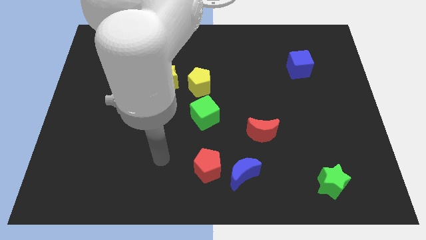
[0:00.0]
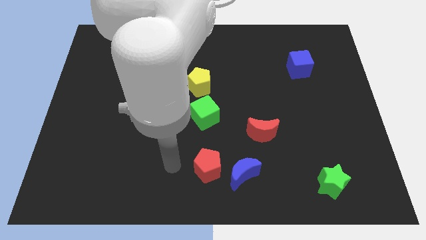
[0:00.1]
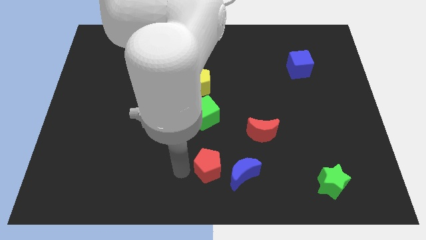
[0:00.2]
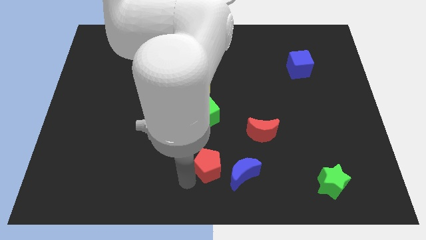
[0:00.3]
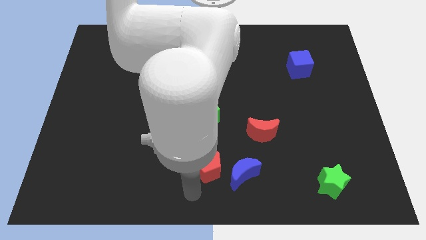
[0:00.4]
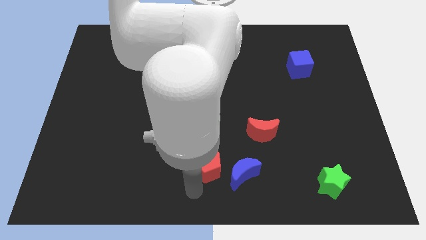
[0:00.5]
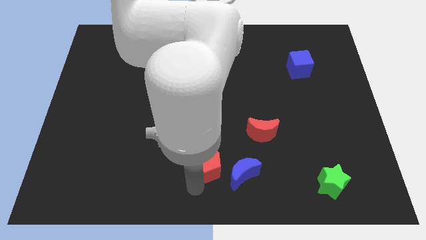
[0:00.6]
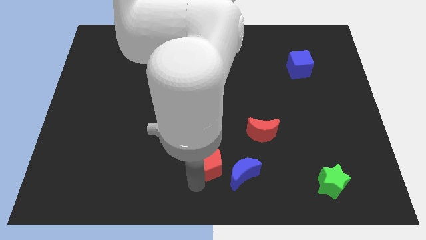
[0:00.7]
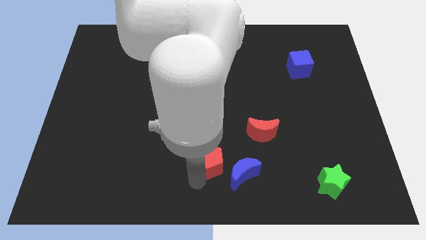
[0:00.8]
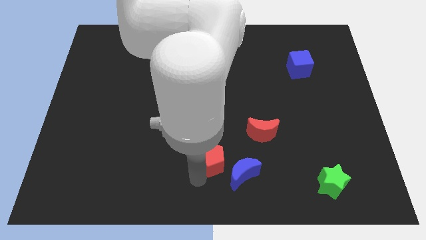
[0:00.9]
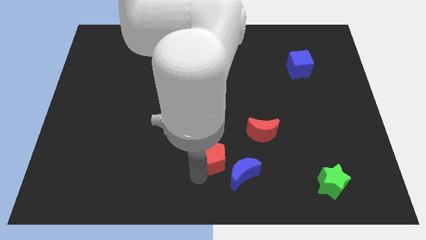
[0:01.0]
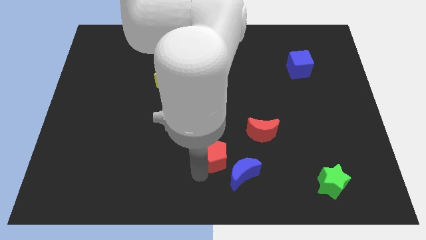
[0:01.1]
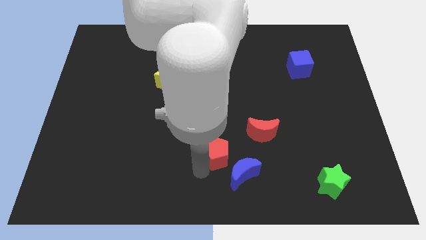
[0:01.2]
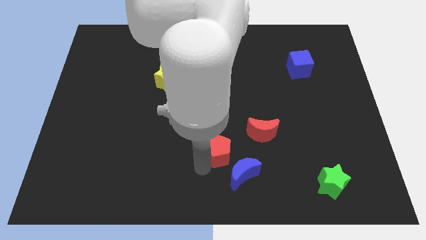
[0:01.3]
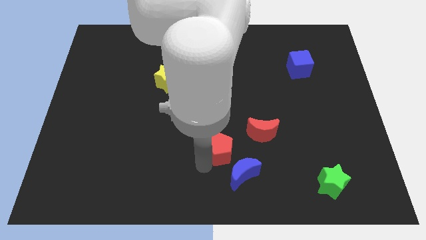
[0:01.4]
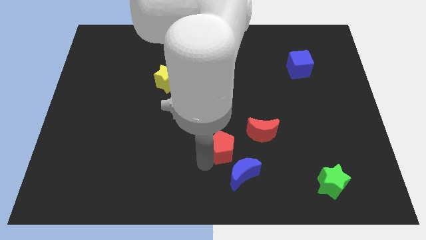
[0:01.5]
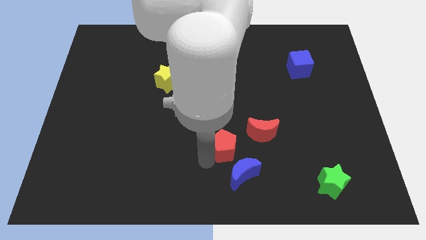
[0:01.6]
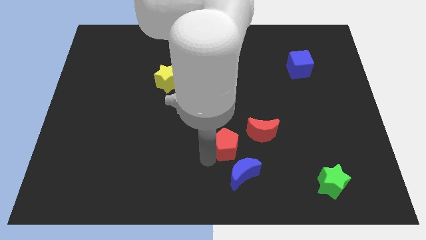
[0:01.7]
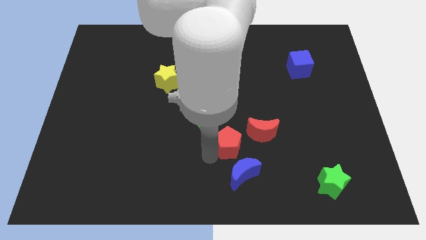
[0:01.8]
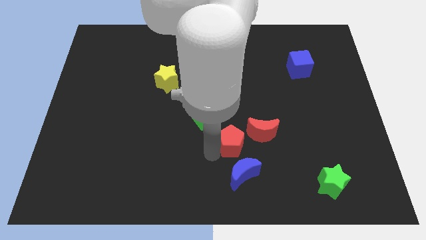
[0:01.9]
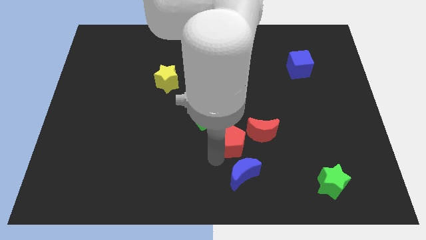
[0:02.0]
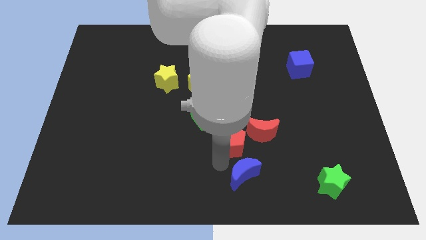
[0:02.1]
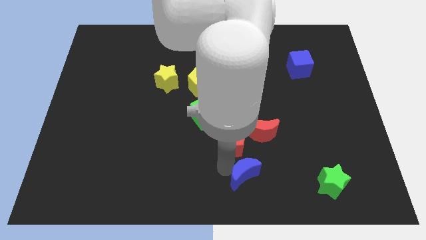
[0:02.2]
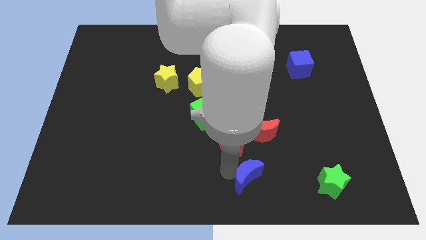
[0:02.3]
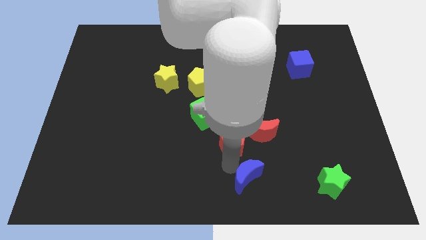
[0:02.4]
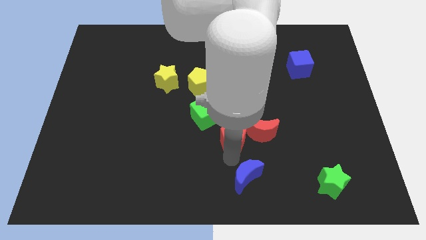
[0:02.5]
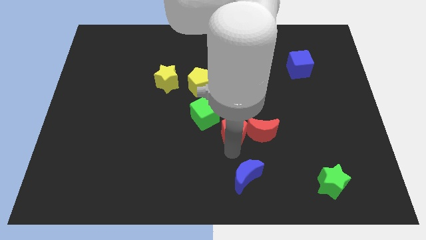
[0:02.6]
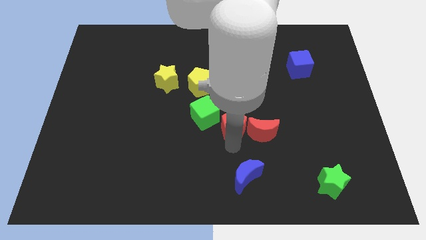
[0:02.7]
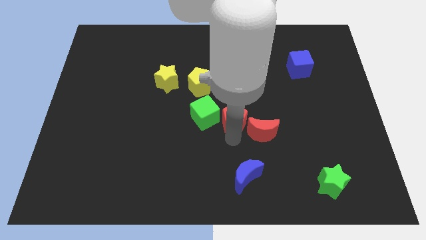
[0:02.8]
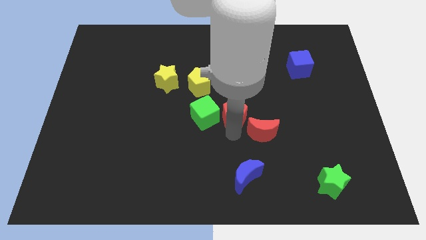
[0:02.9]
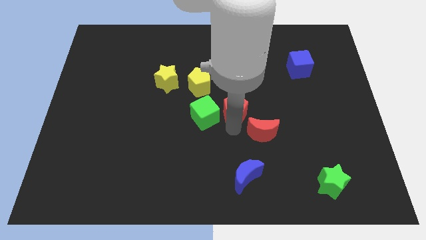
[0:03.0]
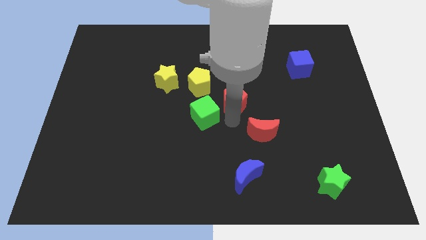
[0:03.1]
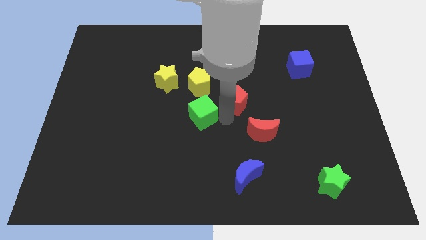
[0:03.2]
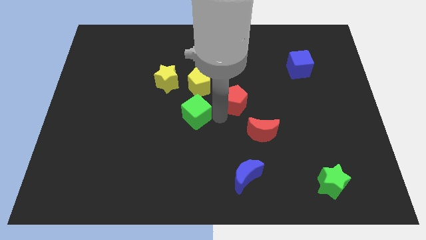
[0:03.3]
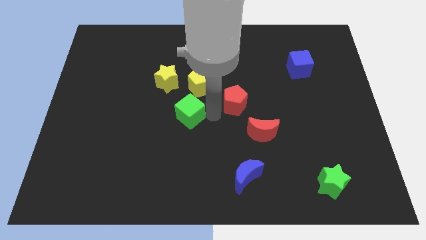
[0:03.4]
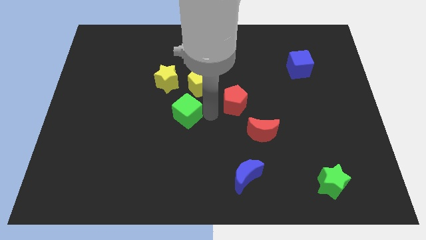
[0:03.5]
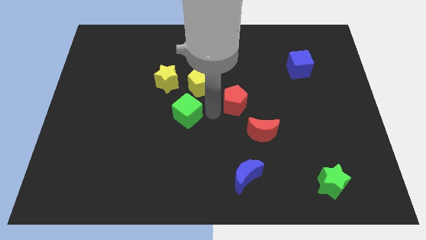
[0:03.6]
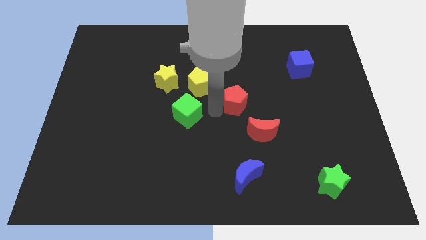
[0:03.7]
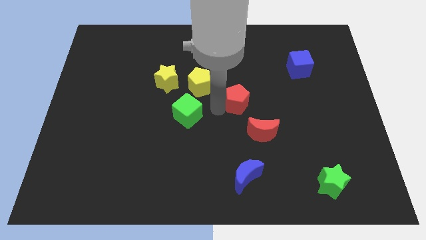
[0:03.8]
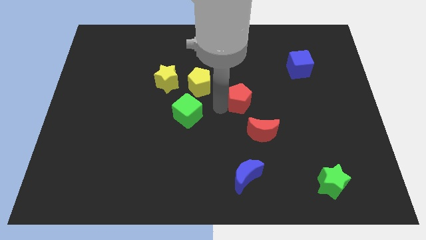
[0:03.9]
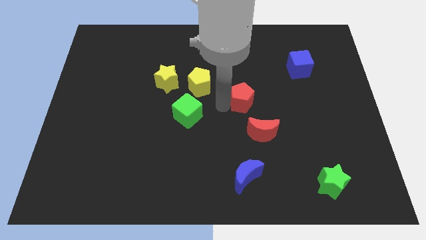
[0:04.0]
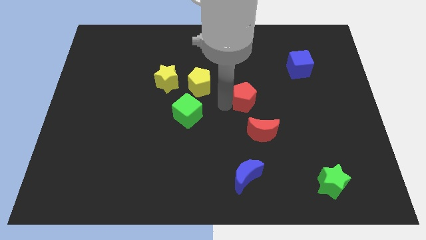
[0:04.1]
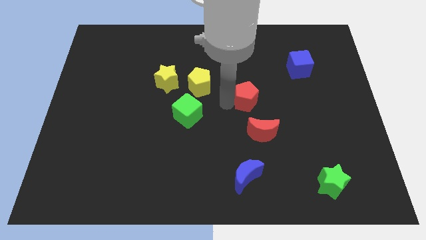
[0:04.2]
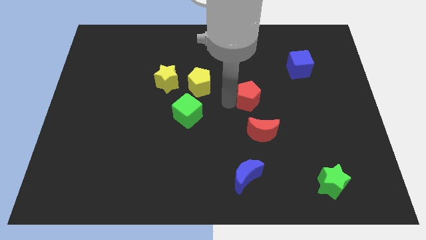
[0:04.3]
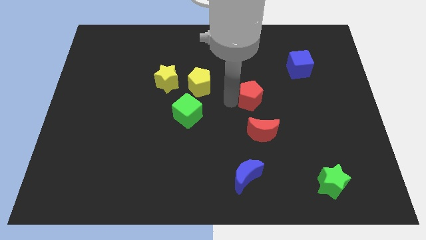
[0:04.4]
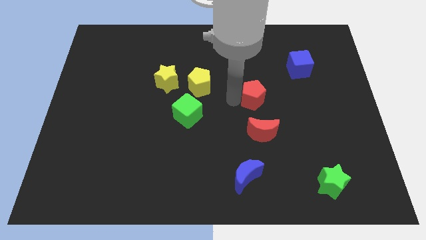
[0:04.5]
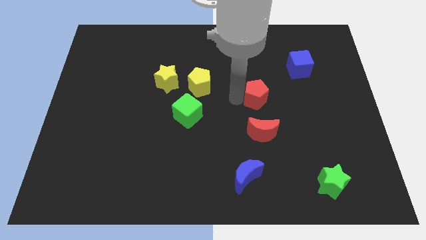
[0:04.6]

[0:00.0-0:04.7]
push the red pentagon upwards and right

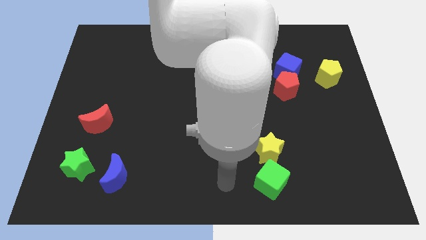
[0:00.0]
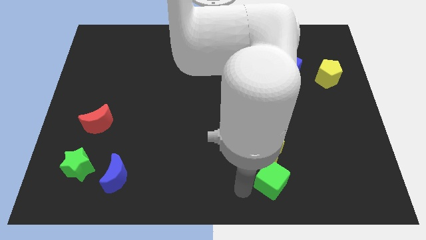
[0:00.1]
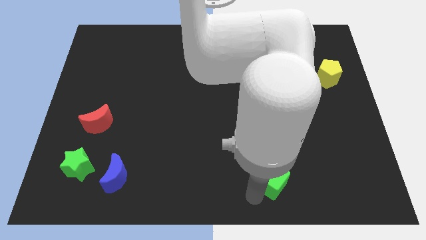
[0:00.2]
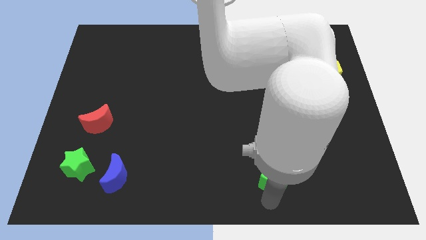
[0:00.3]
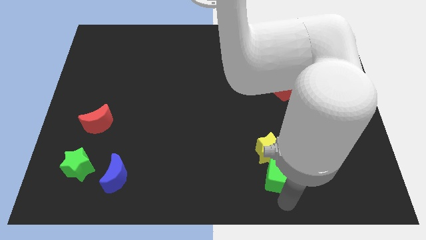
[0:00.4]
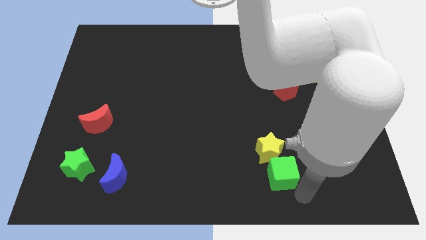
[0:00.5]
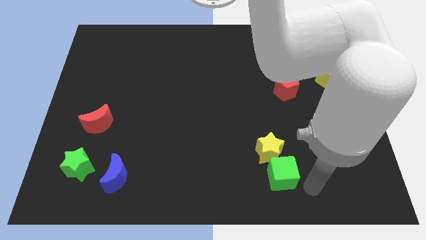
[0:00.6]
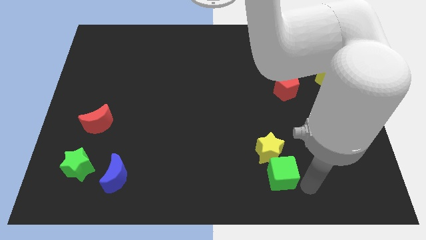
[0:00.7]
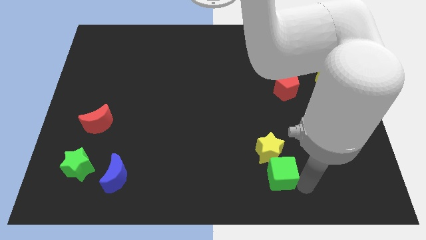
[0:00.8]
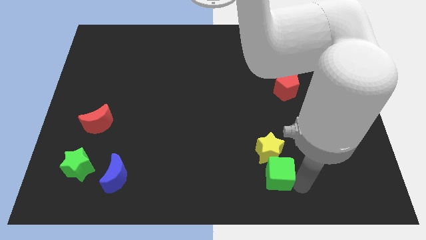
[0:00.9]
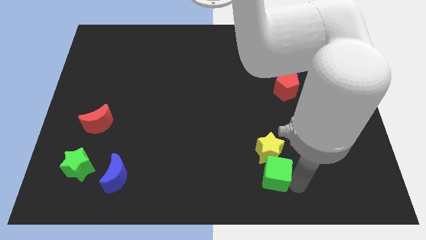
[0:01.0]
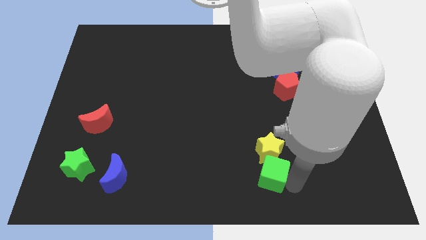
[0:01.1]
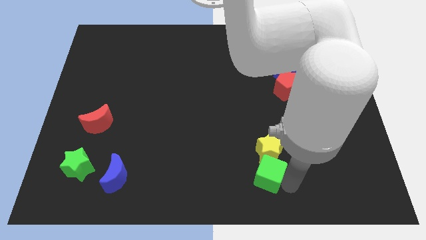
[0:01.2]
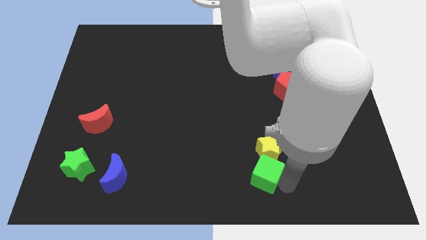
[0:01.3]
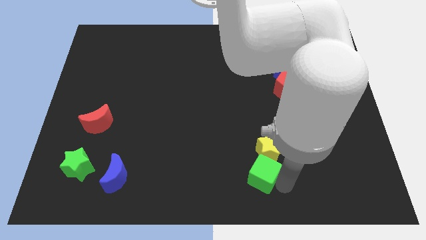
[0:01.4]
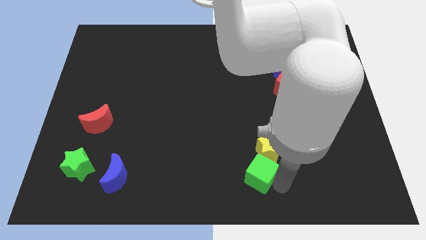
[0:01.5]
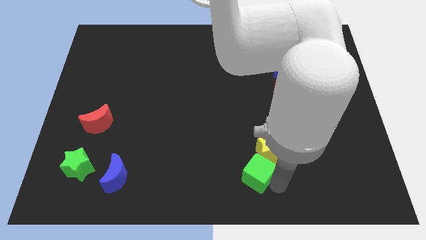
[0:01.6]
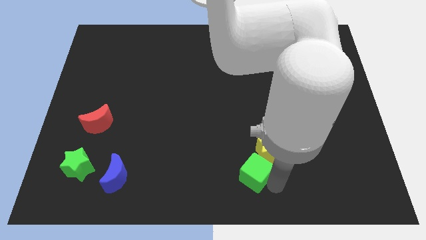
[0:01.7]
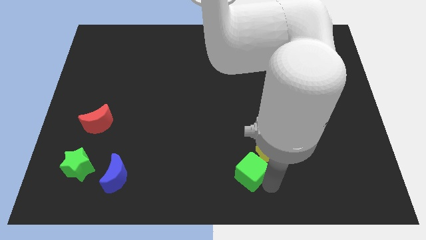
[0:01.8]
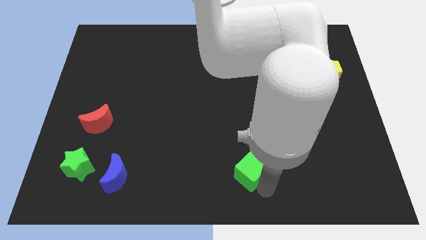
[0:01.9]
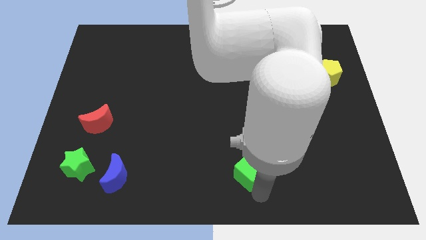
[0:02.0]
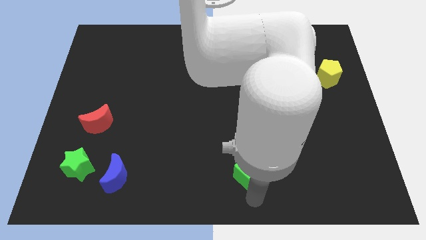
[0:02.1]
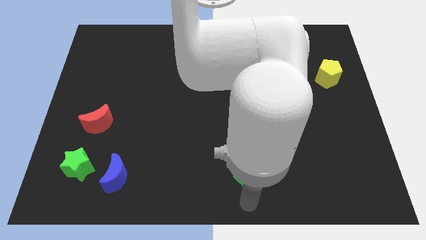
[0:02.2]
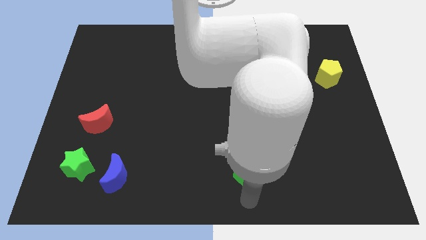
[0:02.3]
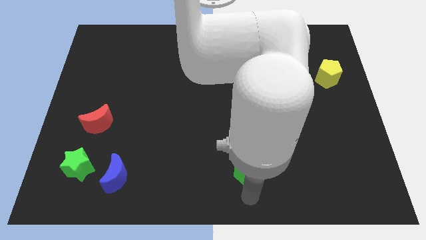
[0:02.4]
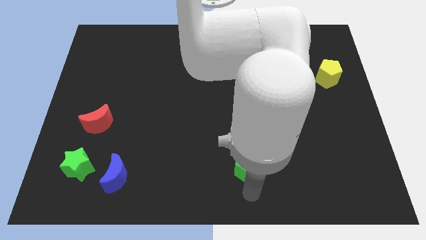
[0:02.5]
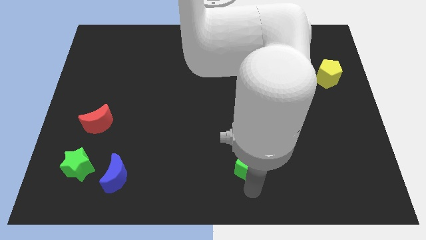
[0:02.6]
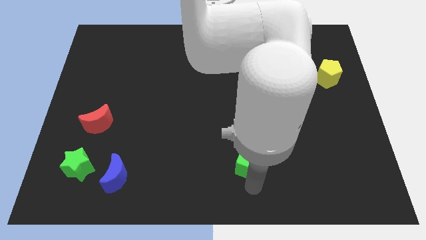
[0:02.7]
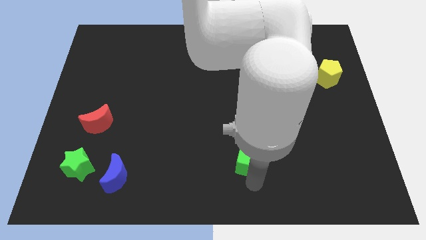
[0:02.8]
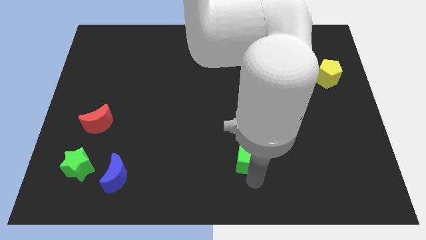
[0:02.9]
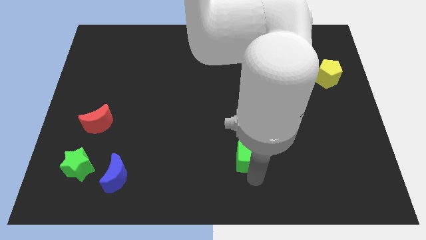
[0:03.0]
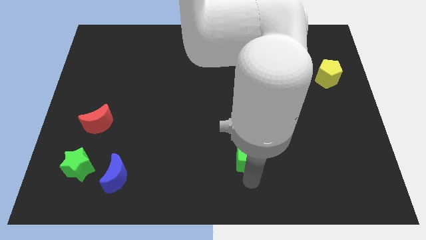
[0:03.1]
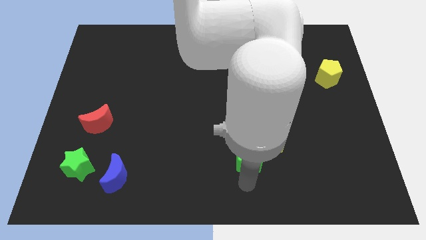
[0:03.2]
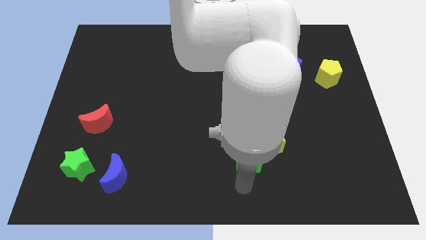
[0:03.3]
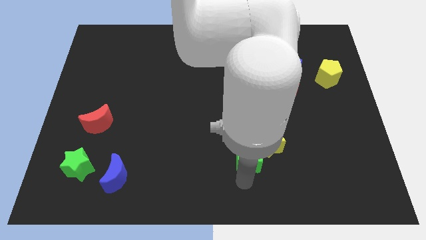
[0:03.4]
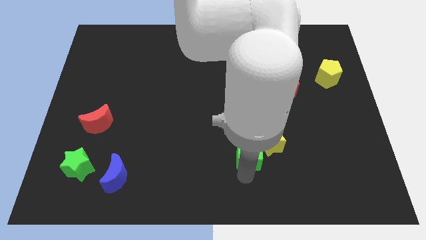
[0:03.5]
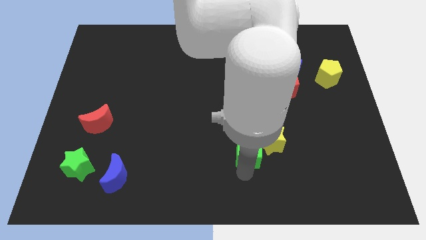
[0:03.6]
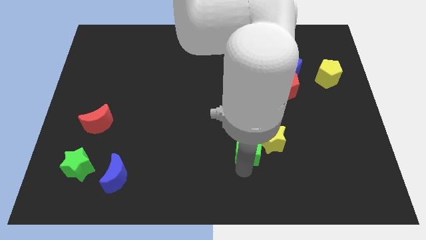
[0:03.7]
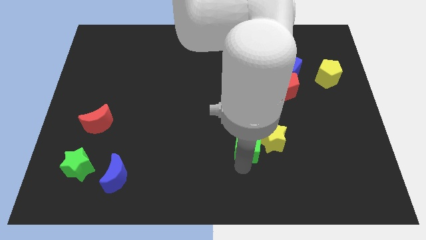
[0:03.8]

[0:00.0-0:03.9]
move the green cube upwards a little

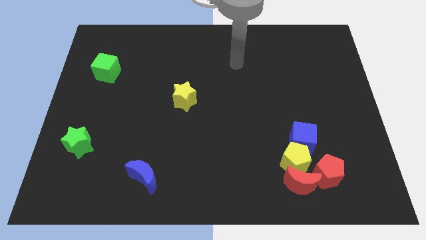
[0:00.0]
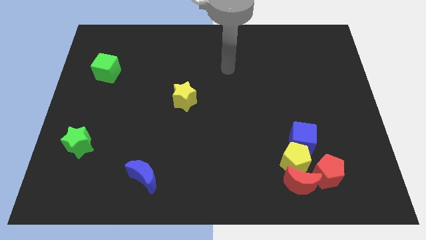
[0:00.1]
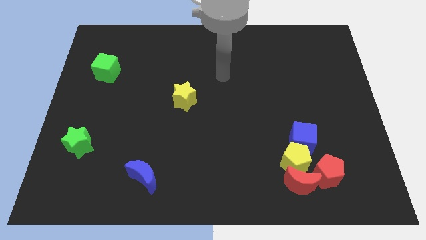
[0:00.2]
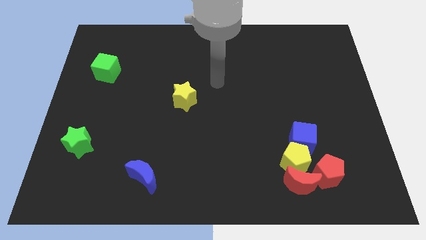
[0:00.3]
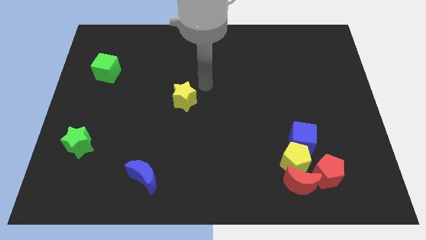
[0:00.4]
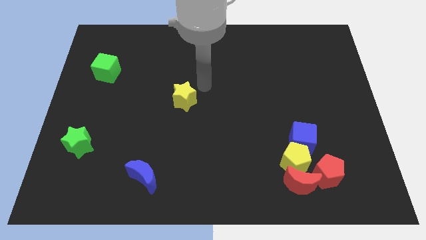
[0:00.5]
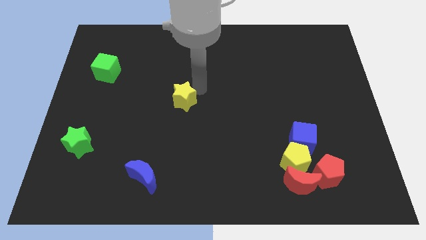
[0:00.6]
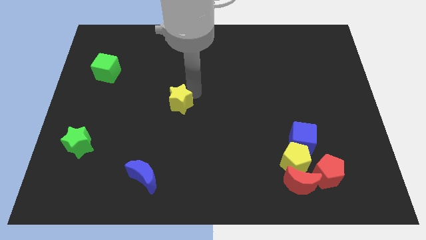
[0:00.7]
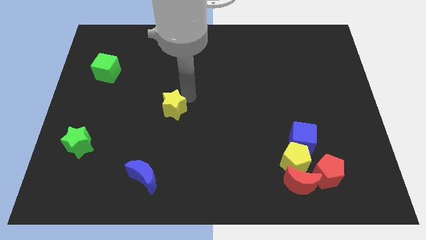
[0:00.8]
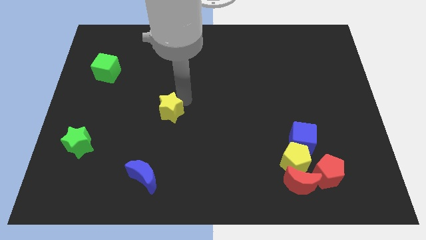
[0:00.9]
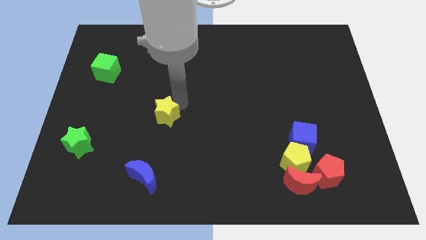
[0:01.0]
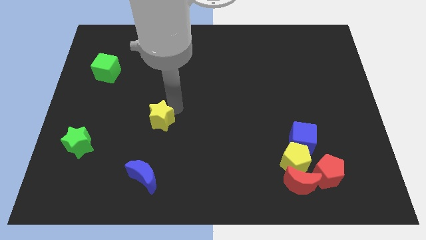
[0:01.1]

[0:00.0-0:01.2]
slightly slide the yellow star down and to the left diagonally
